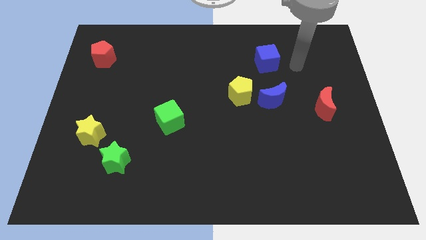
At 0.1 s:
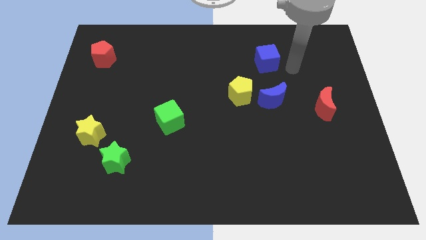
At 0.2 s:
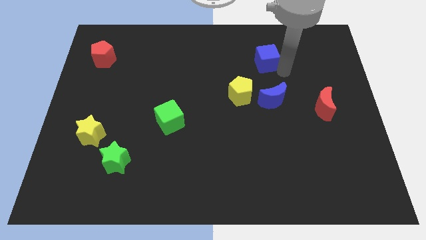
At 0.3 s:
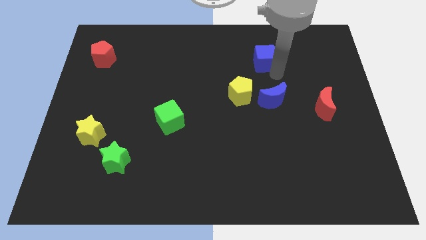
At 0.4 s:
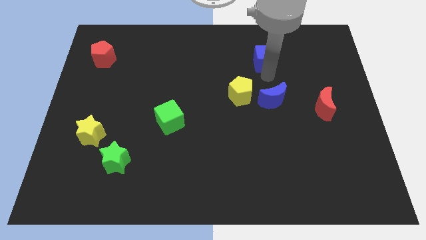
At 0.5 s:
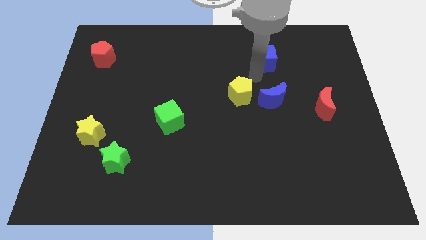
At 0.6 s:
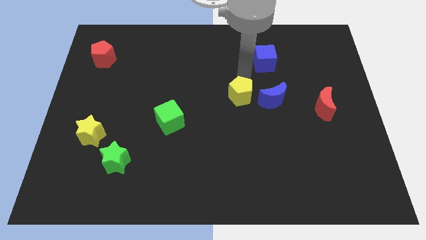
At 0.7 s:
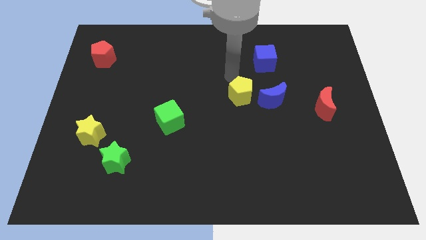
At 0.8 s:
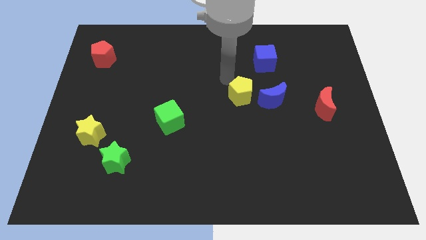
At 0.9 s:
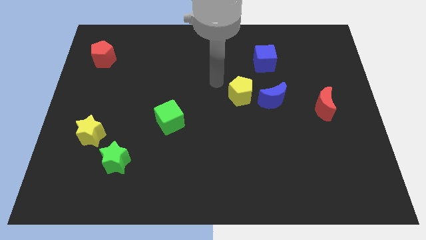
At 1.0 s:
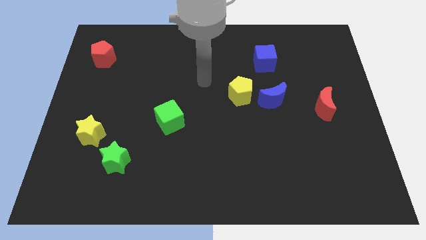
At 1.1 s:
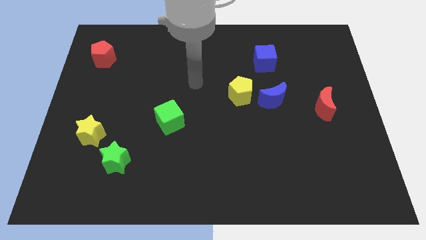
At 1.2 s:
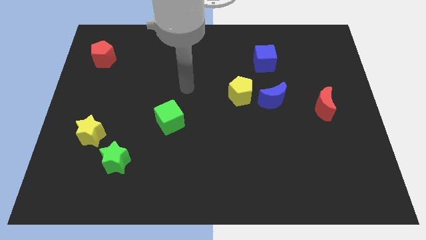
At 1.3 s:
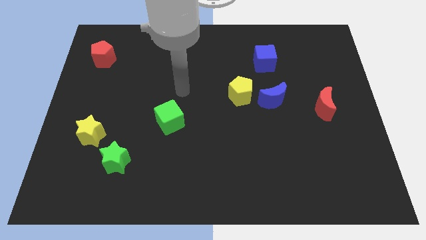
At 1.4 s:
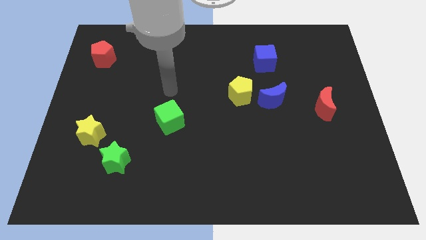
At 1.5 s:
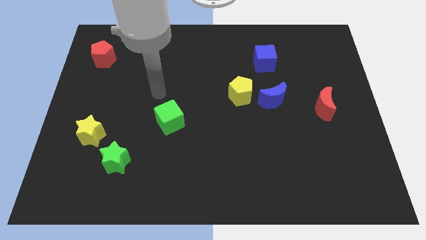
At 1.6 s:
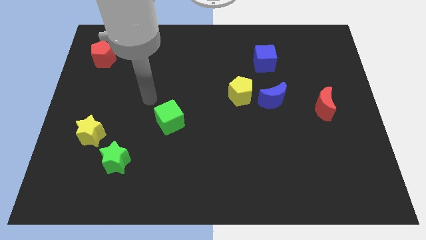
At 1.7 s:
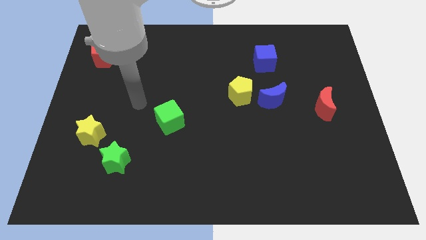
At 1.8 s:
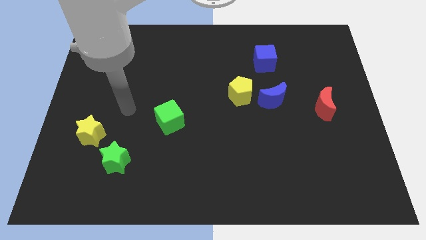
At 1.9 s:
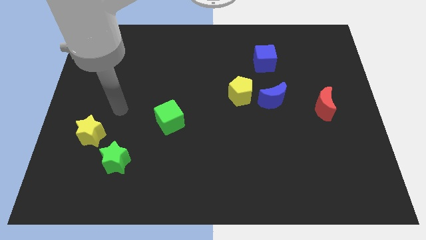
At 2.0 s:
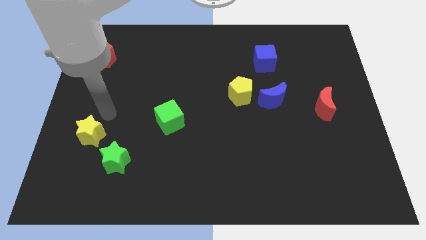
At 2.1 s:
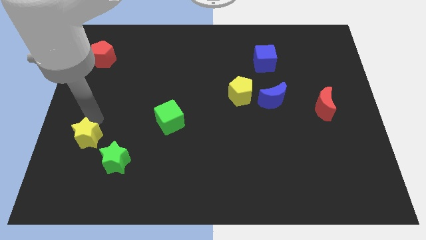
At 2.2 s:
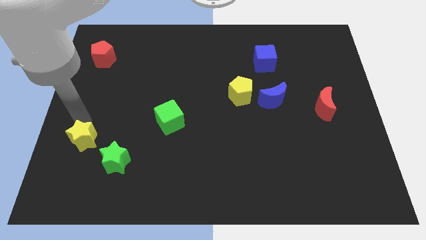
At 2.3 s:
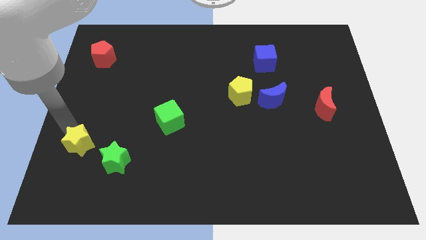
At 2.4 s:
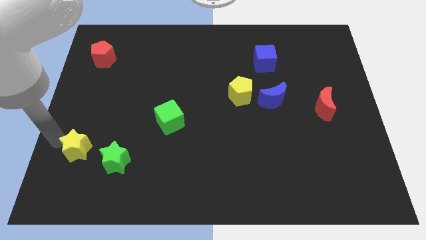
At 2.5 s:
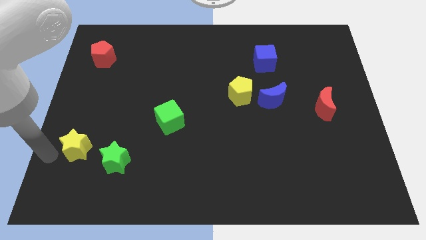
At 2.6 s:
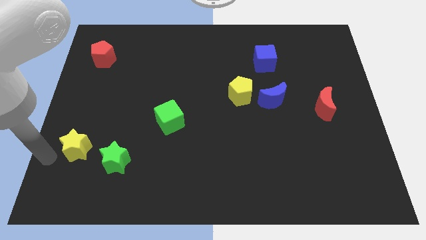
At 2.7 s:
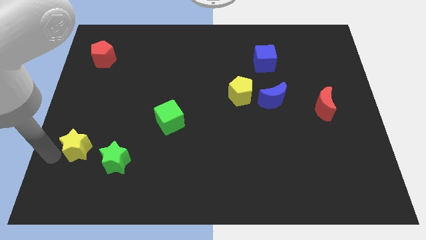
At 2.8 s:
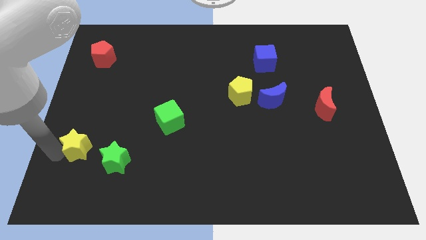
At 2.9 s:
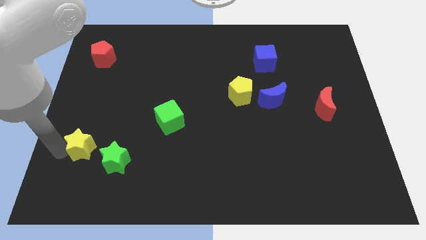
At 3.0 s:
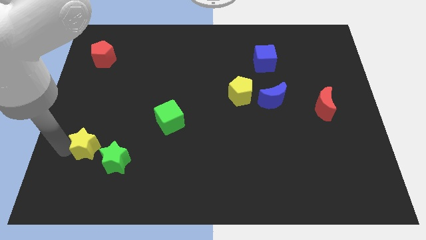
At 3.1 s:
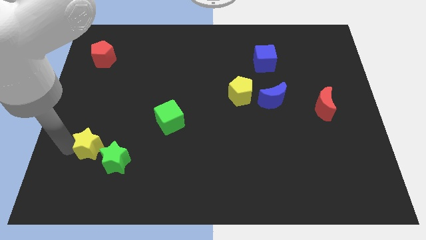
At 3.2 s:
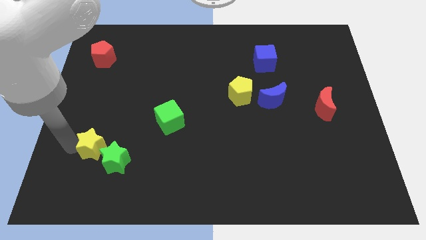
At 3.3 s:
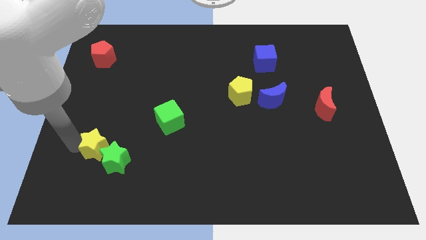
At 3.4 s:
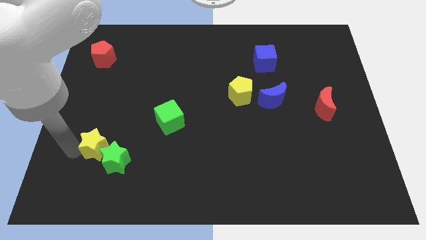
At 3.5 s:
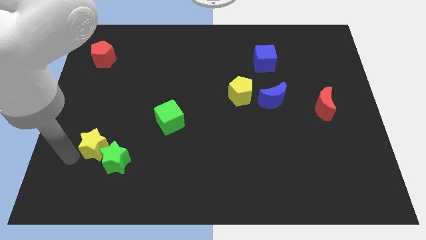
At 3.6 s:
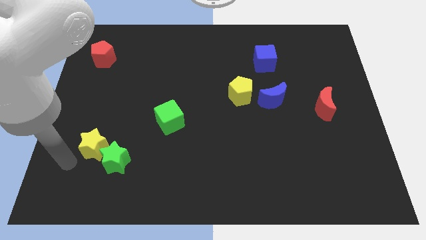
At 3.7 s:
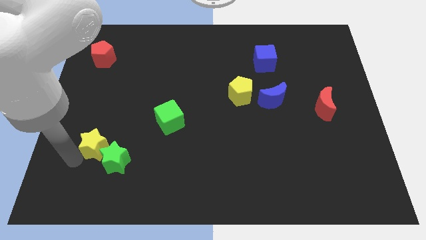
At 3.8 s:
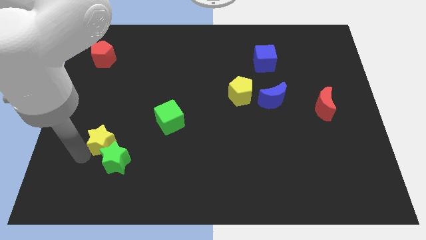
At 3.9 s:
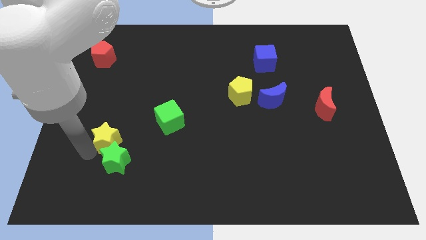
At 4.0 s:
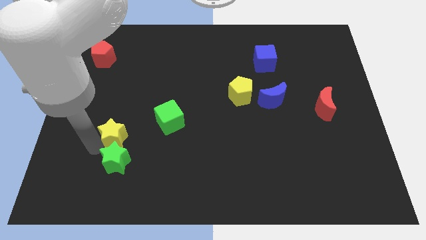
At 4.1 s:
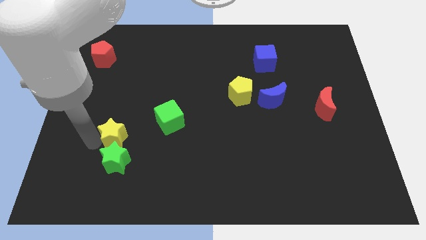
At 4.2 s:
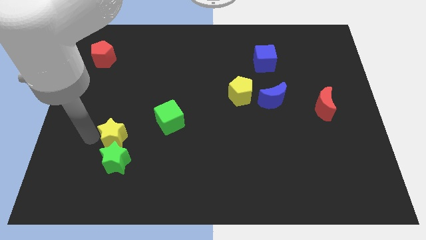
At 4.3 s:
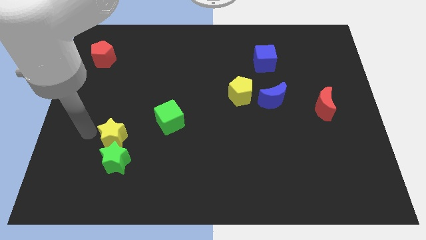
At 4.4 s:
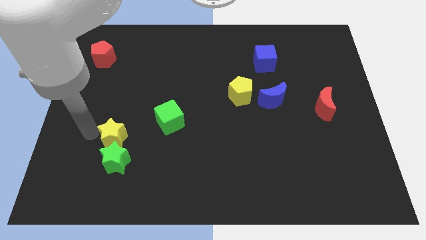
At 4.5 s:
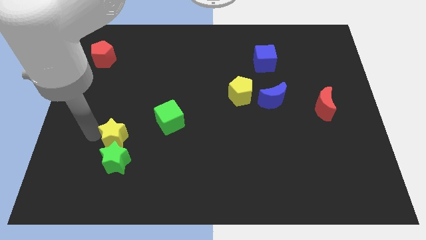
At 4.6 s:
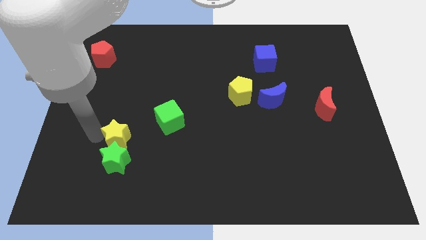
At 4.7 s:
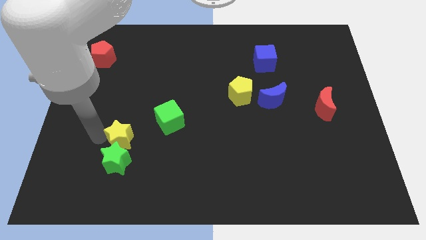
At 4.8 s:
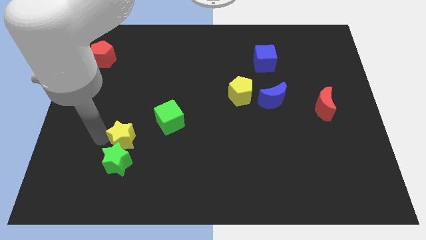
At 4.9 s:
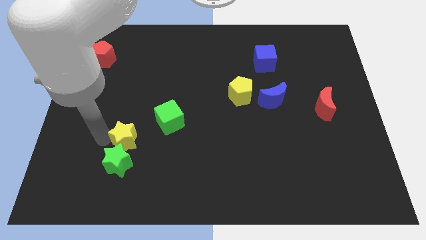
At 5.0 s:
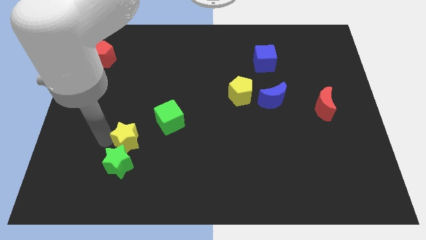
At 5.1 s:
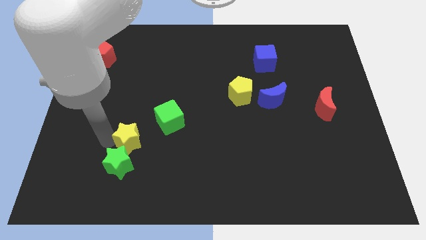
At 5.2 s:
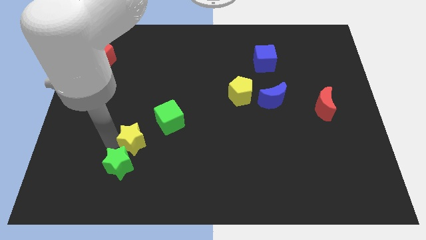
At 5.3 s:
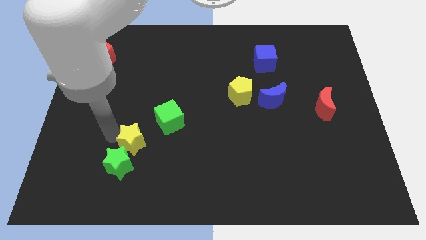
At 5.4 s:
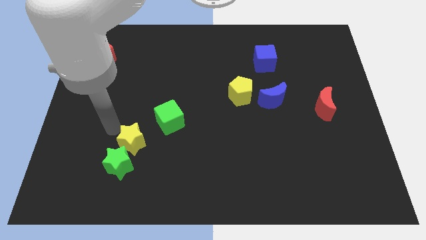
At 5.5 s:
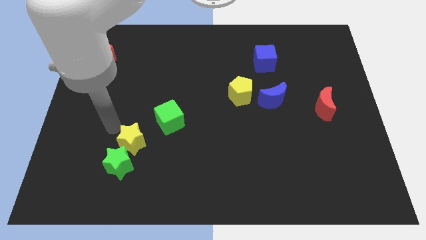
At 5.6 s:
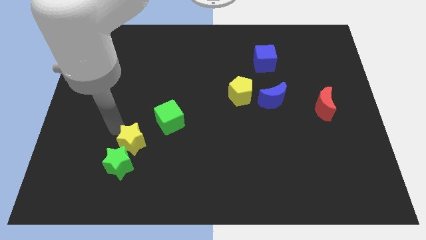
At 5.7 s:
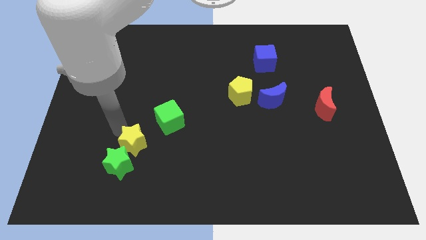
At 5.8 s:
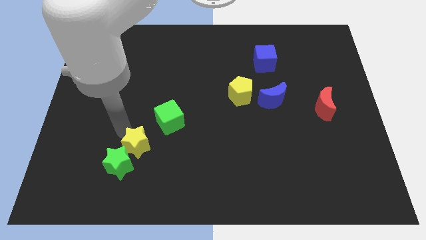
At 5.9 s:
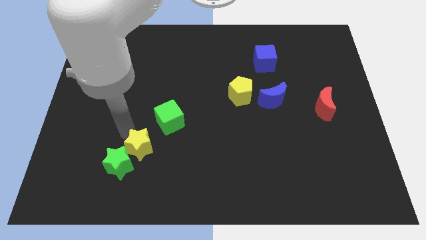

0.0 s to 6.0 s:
push the yellow star to the right side of the green star

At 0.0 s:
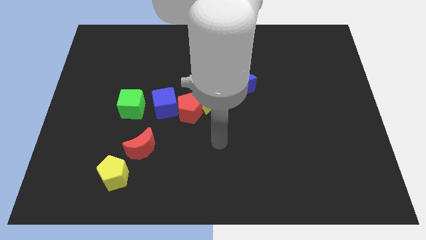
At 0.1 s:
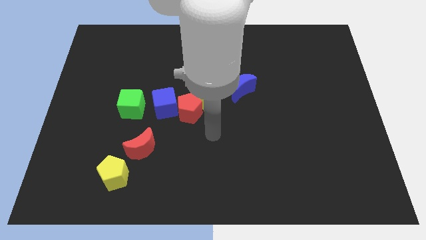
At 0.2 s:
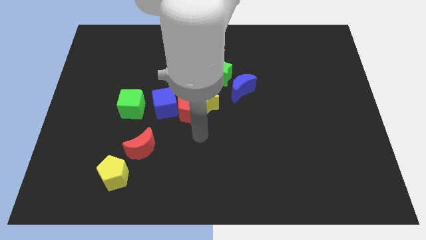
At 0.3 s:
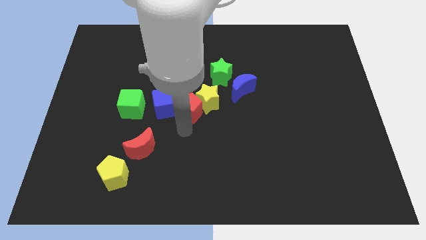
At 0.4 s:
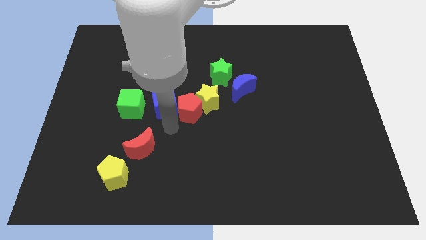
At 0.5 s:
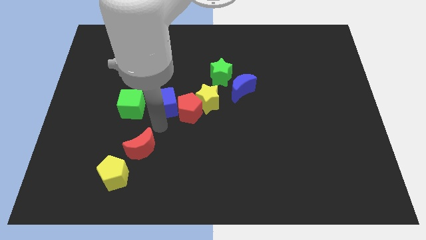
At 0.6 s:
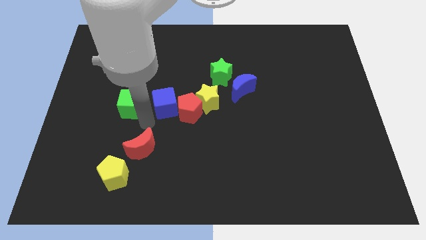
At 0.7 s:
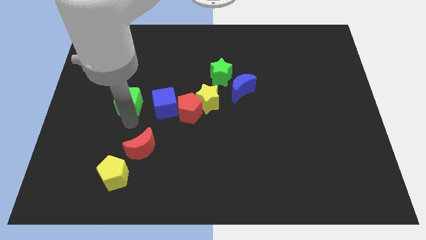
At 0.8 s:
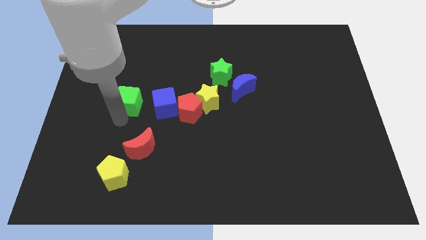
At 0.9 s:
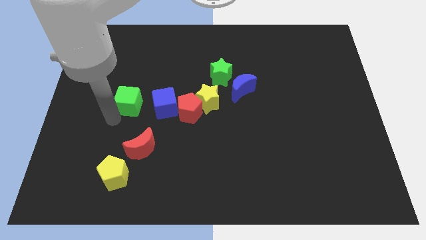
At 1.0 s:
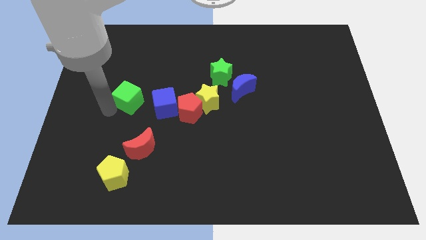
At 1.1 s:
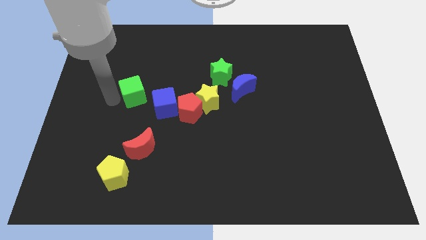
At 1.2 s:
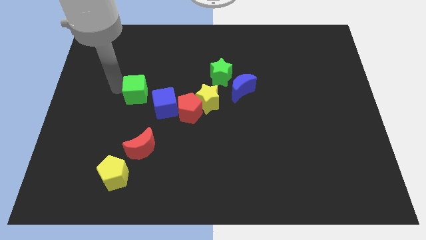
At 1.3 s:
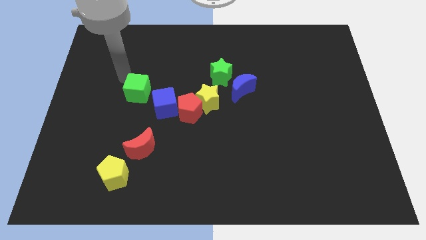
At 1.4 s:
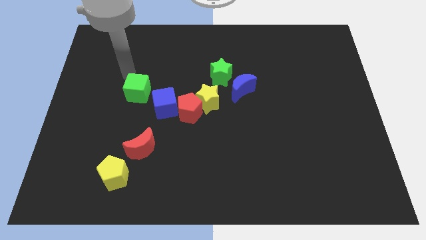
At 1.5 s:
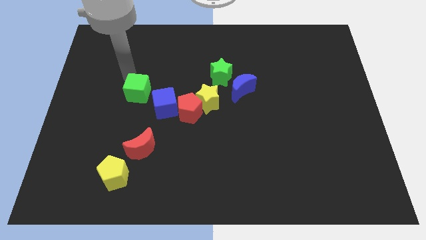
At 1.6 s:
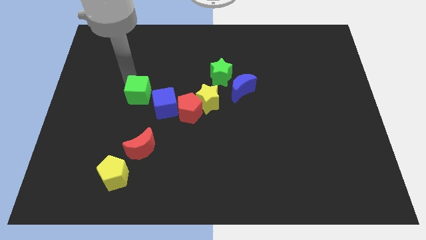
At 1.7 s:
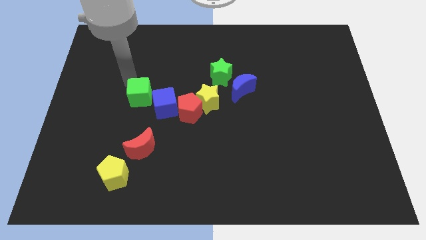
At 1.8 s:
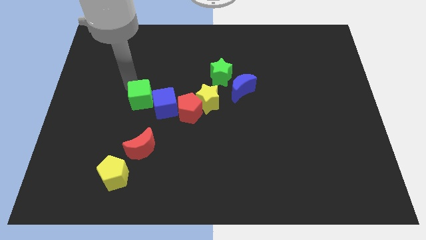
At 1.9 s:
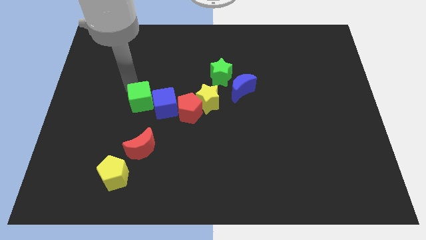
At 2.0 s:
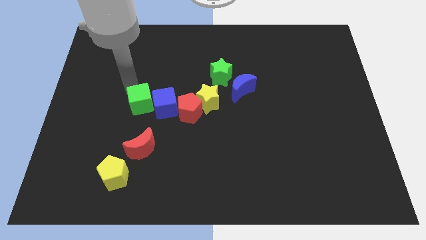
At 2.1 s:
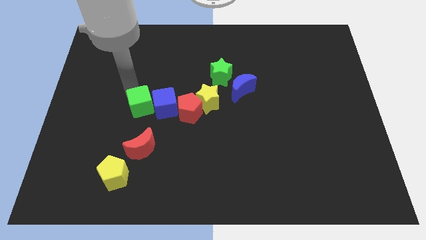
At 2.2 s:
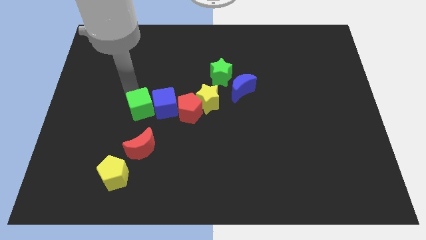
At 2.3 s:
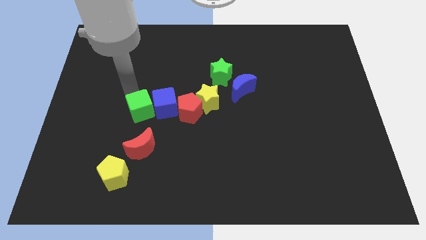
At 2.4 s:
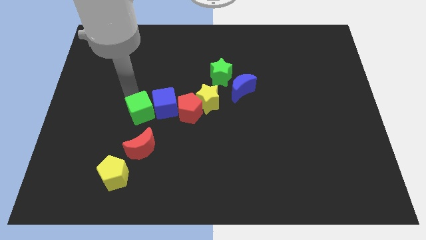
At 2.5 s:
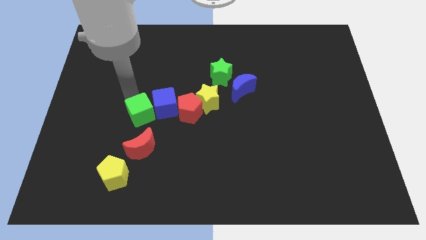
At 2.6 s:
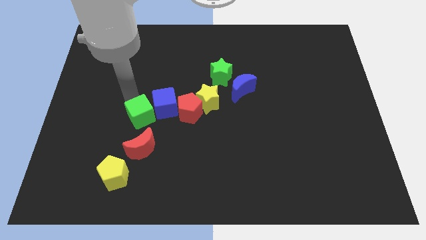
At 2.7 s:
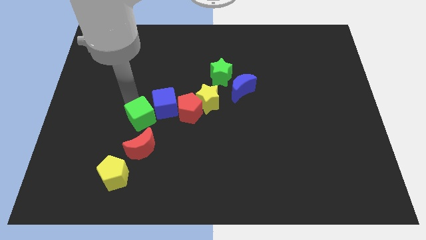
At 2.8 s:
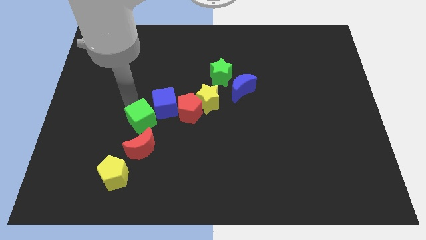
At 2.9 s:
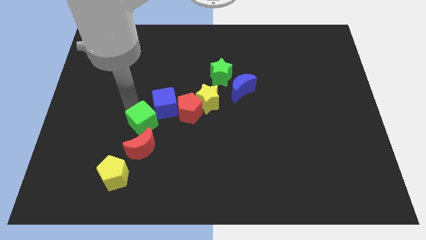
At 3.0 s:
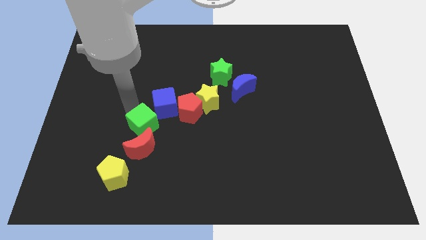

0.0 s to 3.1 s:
slide the green cube diagonally up and to the right of the red moon
